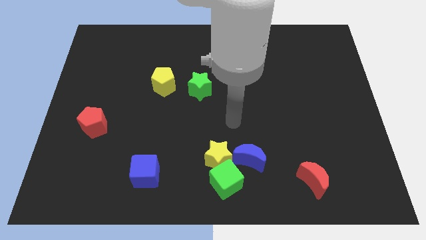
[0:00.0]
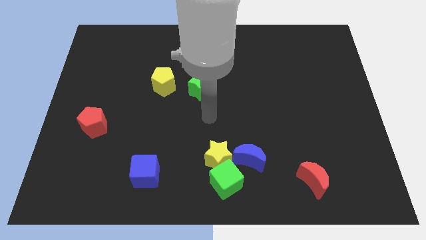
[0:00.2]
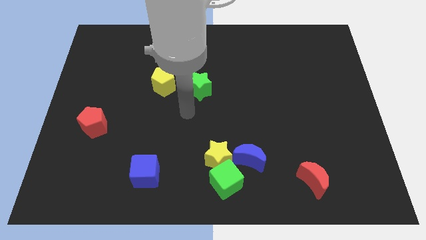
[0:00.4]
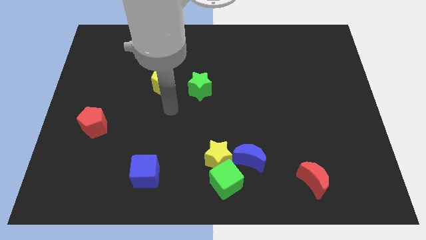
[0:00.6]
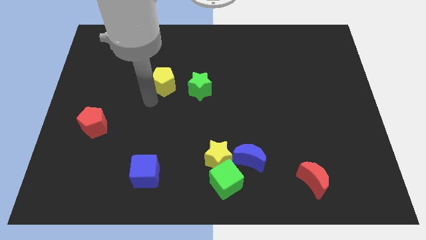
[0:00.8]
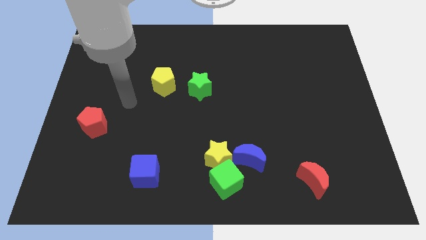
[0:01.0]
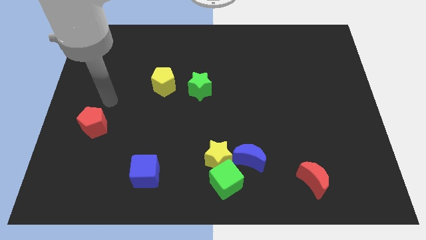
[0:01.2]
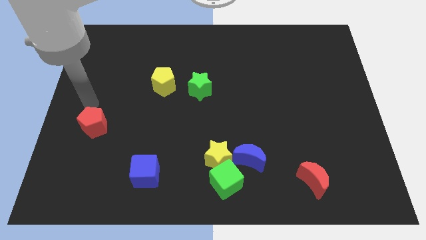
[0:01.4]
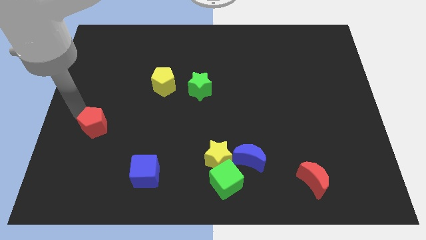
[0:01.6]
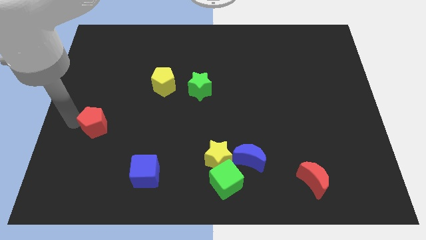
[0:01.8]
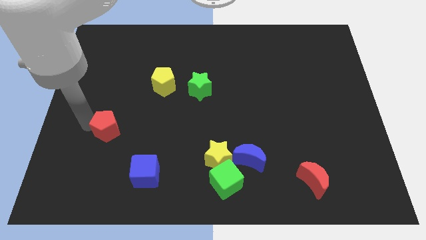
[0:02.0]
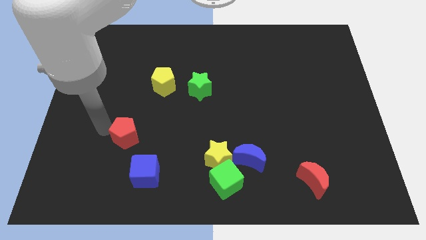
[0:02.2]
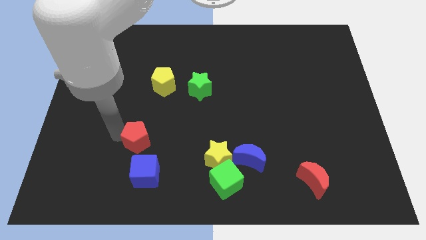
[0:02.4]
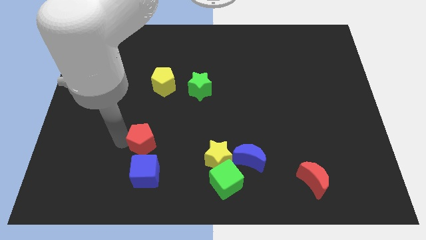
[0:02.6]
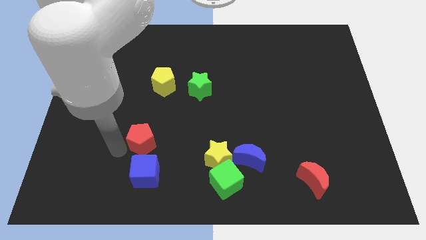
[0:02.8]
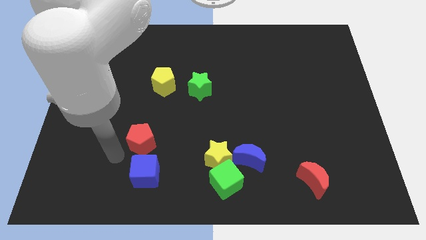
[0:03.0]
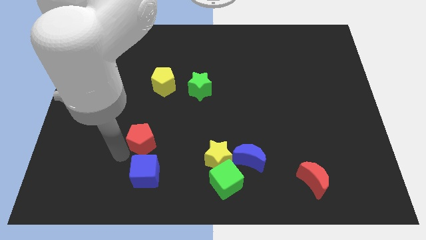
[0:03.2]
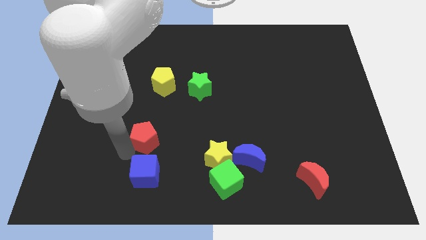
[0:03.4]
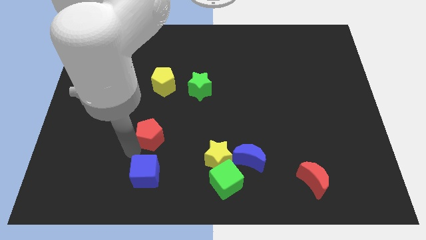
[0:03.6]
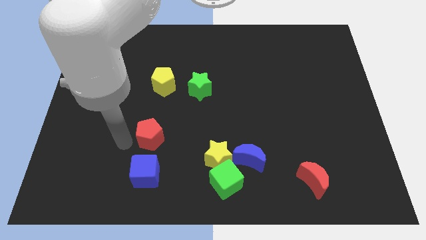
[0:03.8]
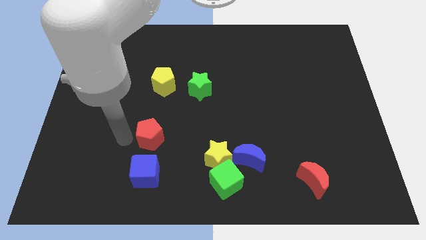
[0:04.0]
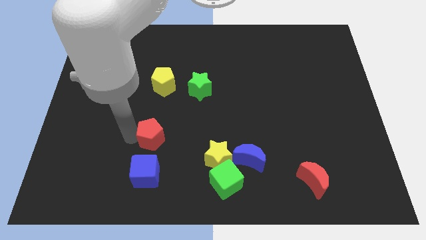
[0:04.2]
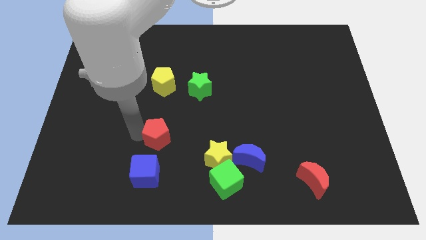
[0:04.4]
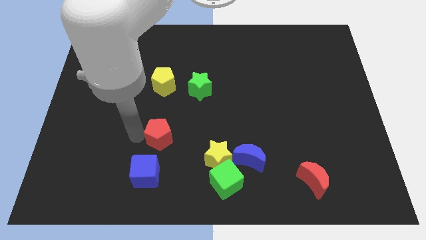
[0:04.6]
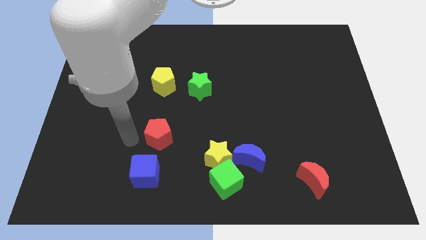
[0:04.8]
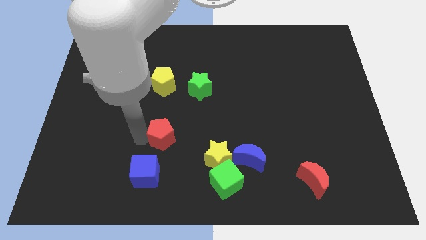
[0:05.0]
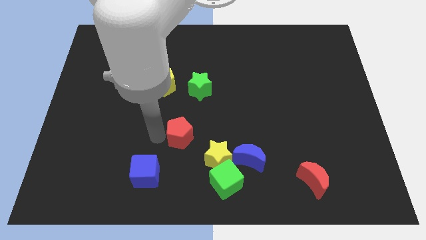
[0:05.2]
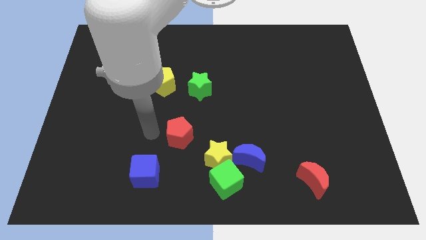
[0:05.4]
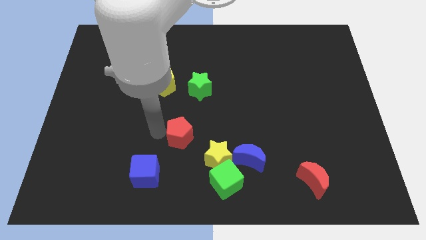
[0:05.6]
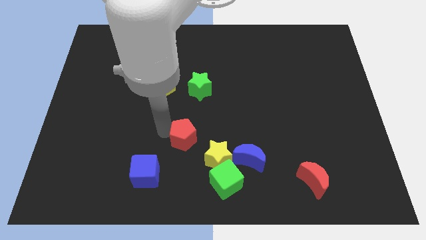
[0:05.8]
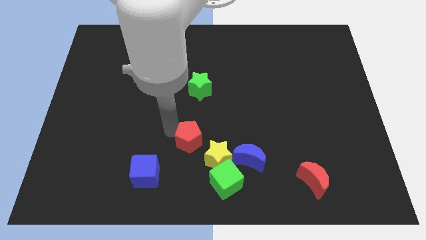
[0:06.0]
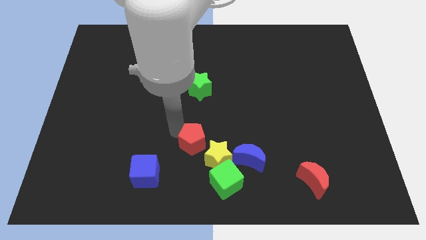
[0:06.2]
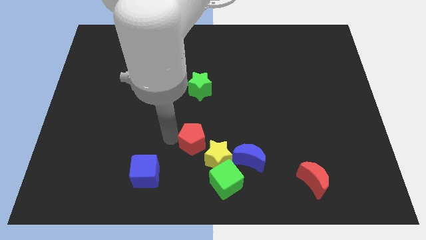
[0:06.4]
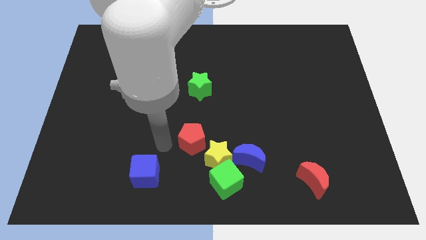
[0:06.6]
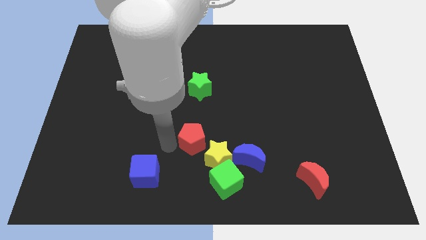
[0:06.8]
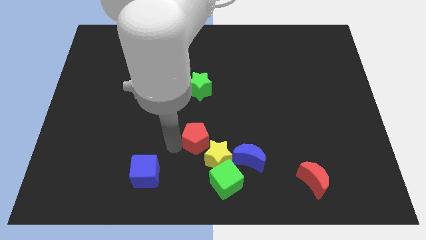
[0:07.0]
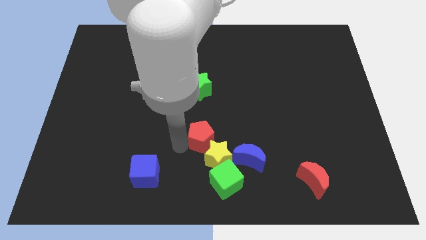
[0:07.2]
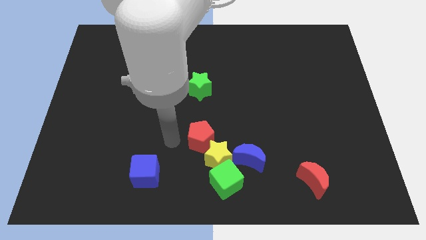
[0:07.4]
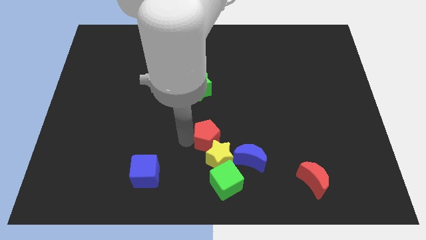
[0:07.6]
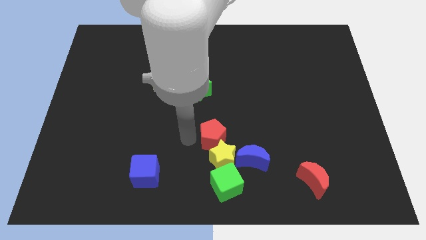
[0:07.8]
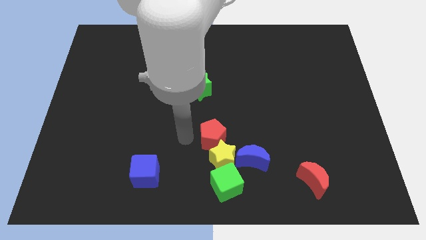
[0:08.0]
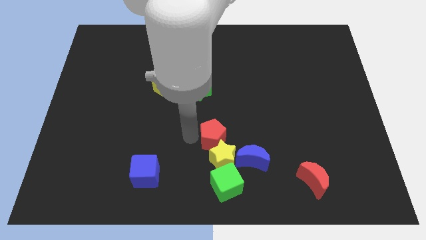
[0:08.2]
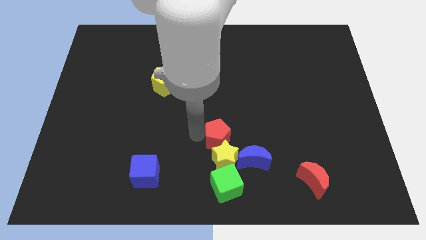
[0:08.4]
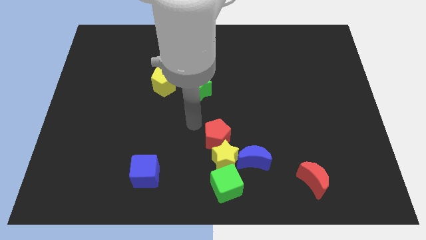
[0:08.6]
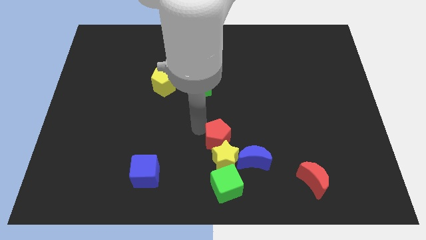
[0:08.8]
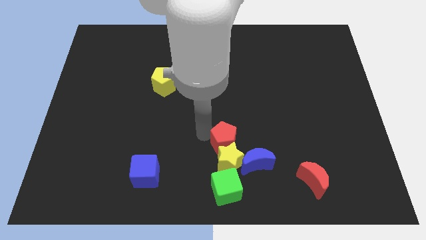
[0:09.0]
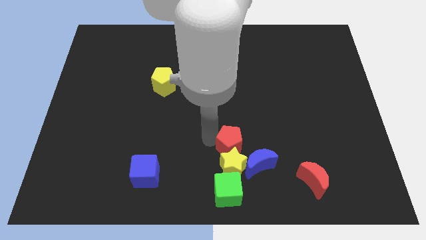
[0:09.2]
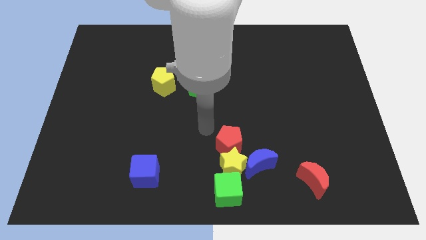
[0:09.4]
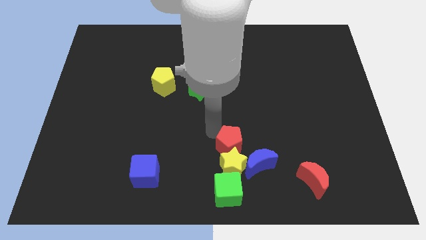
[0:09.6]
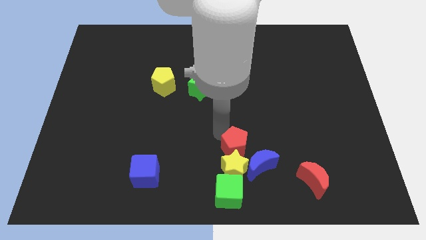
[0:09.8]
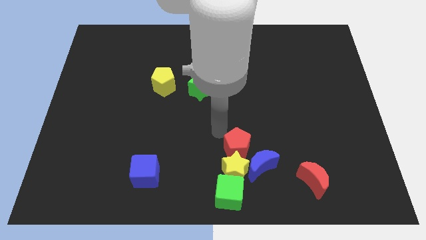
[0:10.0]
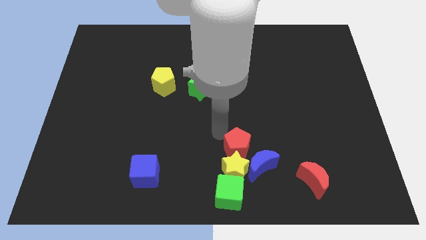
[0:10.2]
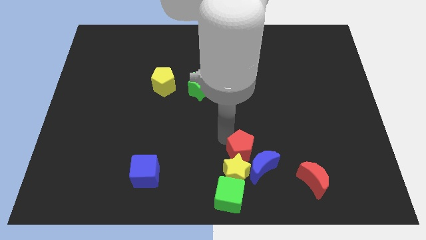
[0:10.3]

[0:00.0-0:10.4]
move the red pentagon towards the blue moon

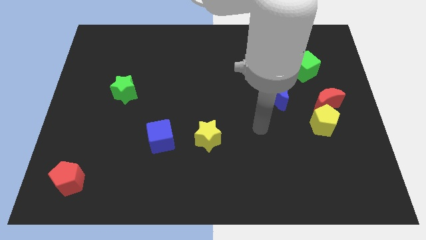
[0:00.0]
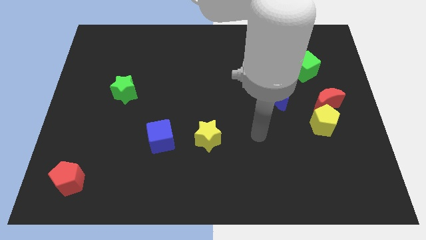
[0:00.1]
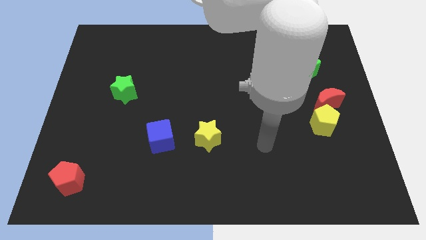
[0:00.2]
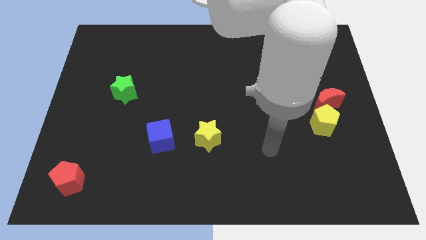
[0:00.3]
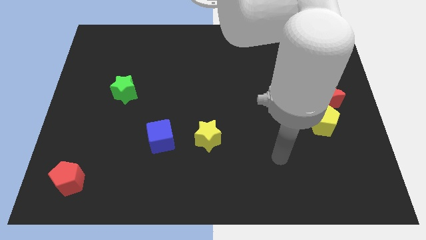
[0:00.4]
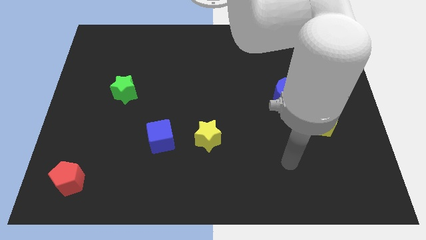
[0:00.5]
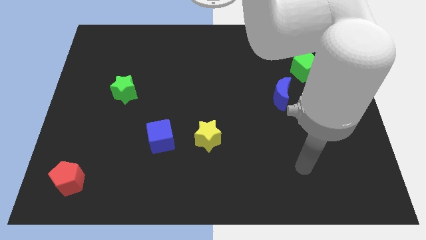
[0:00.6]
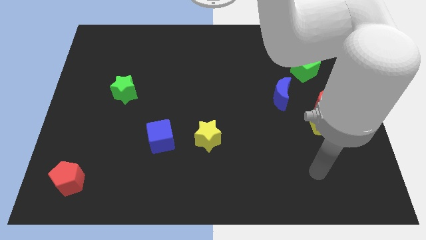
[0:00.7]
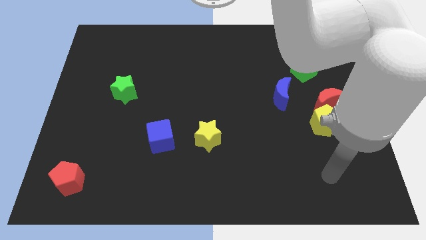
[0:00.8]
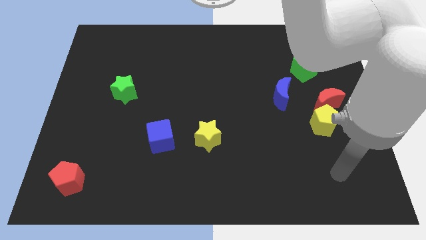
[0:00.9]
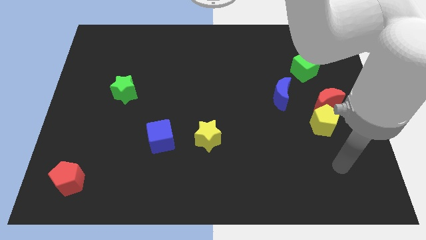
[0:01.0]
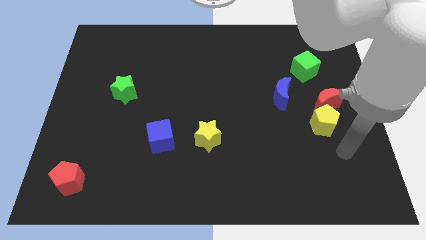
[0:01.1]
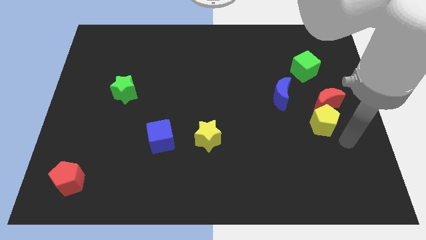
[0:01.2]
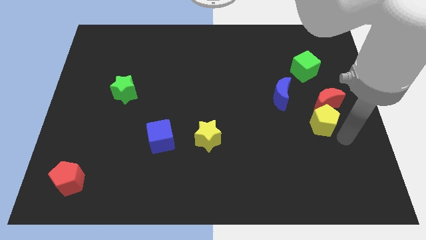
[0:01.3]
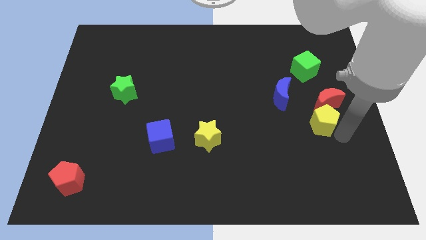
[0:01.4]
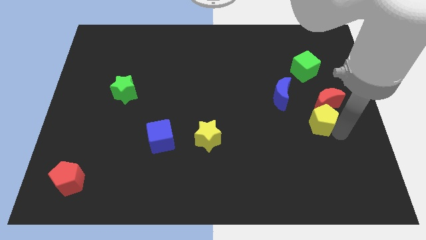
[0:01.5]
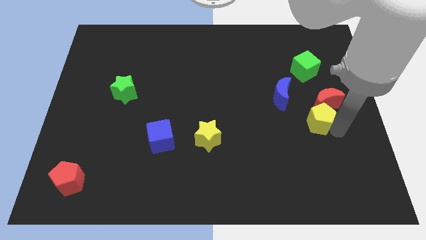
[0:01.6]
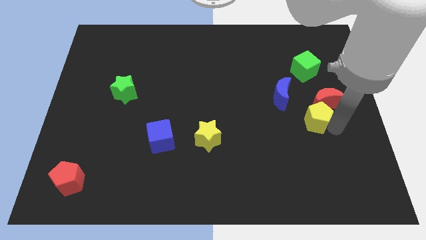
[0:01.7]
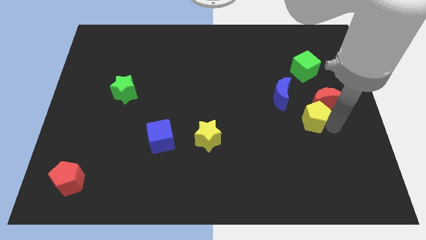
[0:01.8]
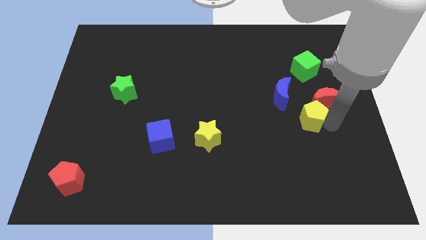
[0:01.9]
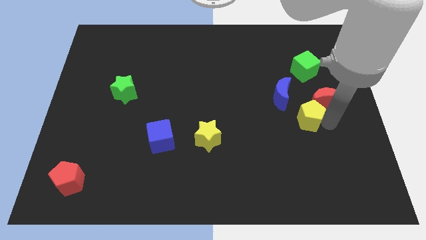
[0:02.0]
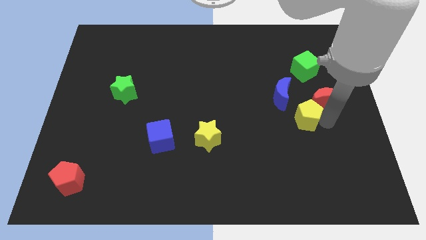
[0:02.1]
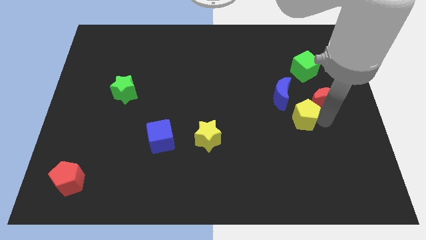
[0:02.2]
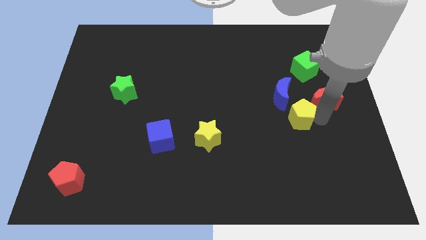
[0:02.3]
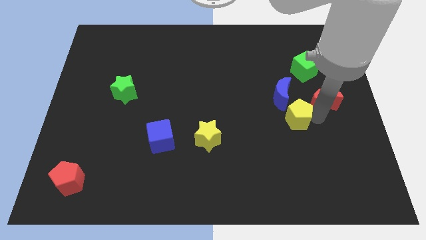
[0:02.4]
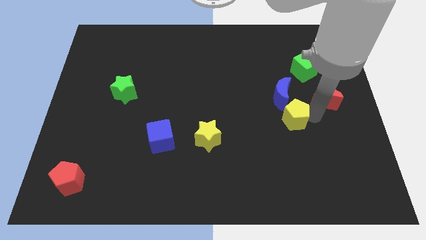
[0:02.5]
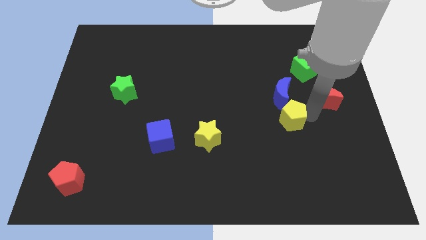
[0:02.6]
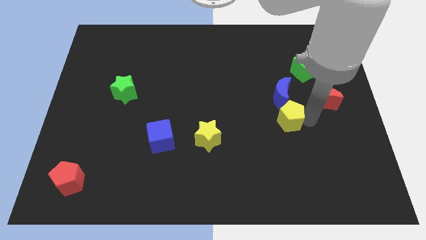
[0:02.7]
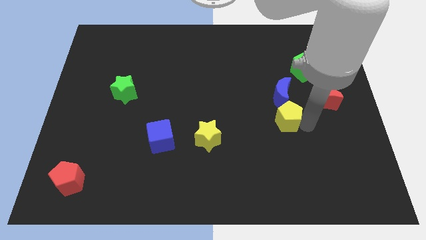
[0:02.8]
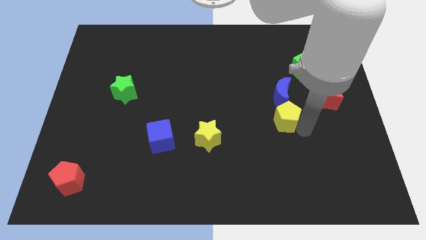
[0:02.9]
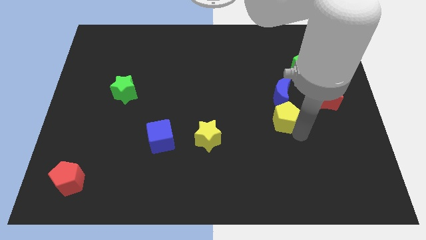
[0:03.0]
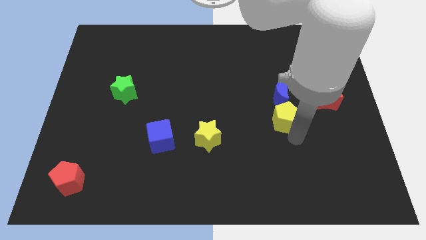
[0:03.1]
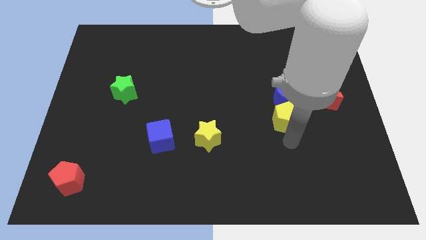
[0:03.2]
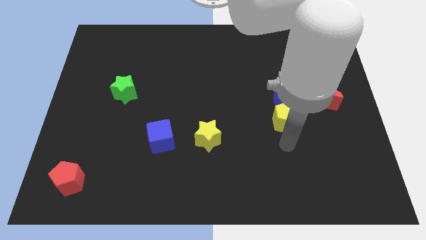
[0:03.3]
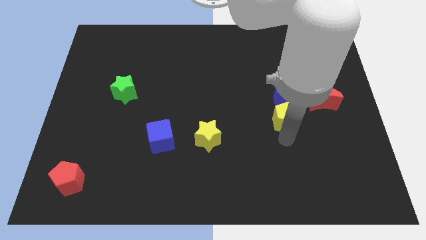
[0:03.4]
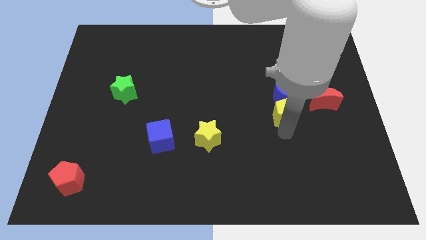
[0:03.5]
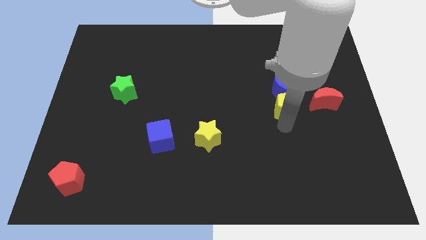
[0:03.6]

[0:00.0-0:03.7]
slide the yellow pentagon to the blue moon
